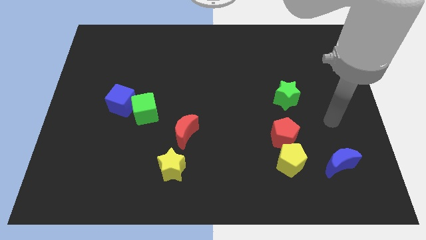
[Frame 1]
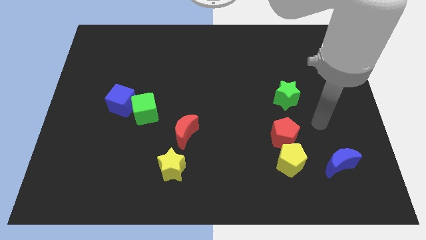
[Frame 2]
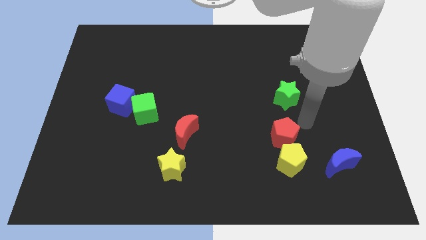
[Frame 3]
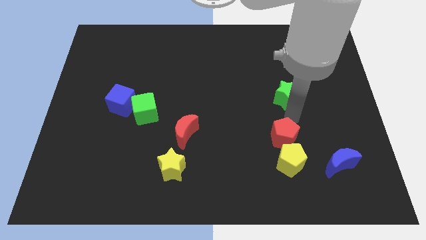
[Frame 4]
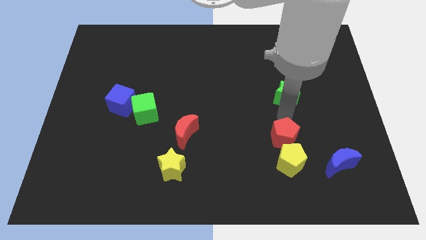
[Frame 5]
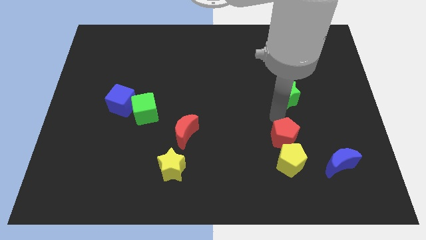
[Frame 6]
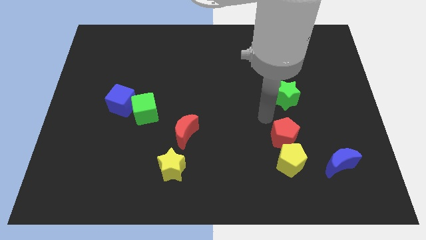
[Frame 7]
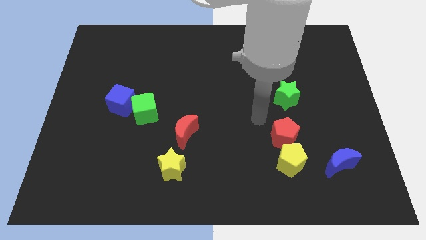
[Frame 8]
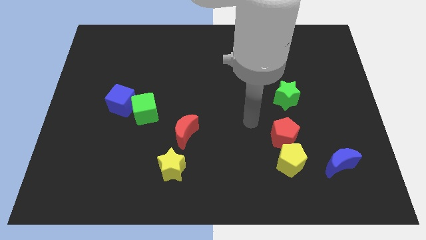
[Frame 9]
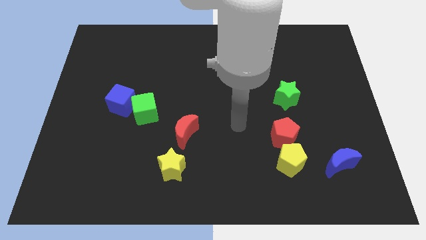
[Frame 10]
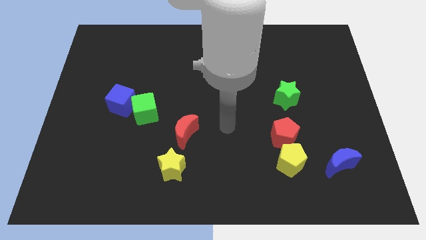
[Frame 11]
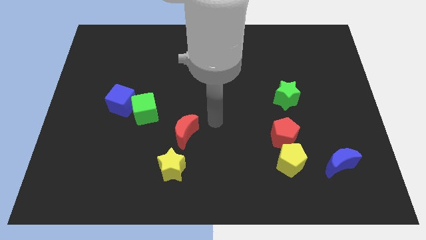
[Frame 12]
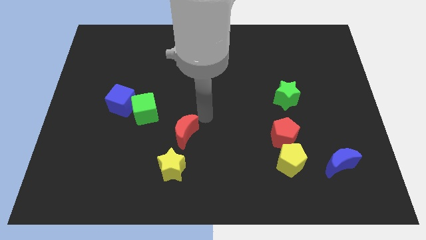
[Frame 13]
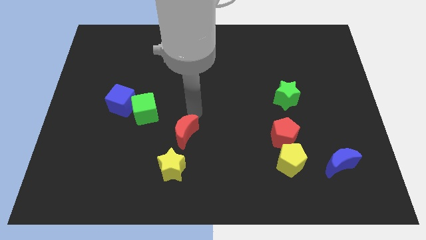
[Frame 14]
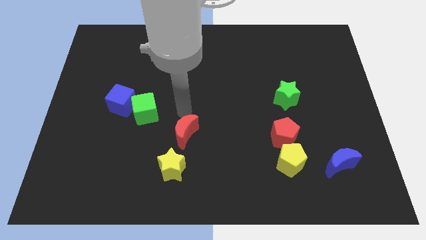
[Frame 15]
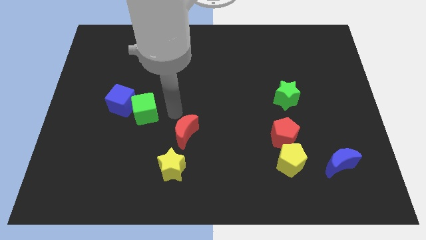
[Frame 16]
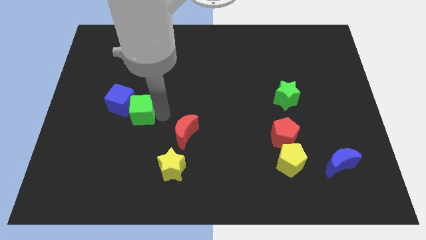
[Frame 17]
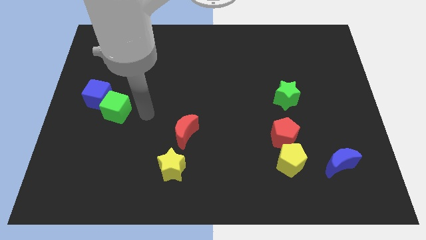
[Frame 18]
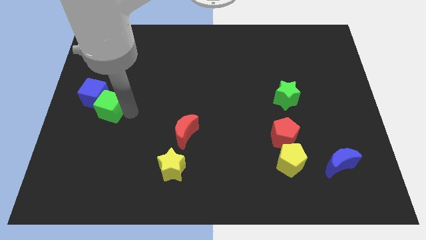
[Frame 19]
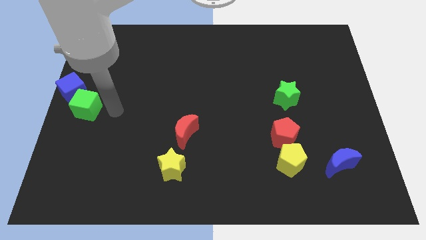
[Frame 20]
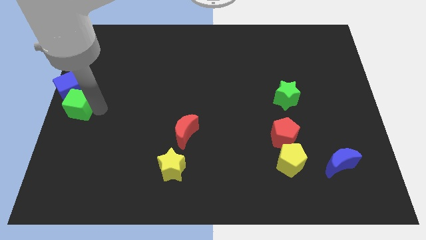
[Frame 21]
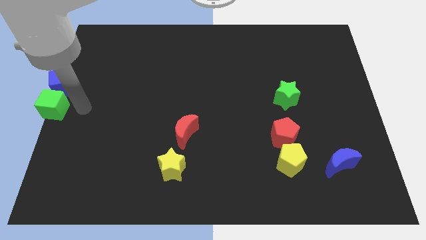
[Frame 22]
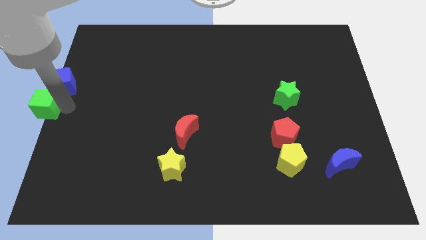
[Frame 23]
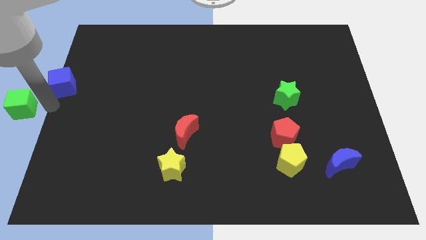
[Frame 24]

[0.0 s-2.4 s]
pull the blue cube apart from the green cube

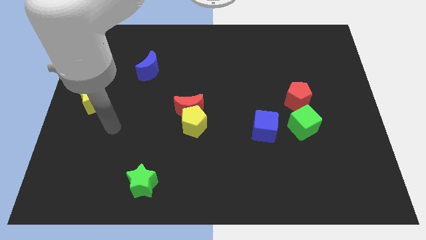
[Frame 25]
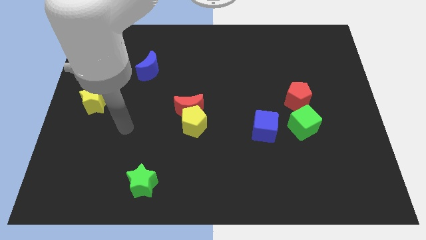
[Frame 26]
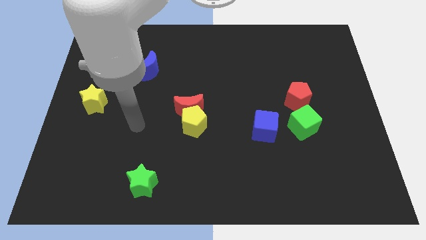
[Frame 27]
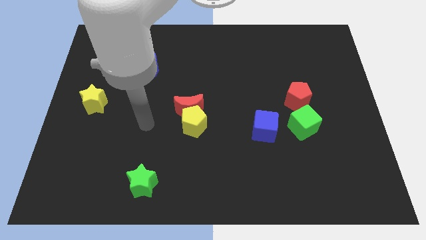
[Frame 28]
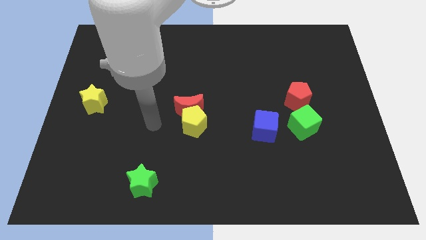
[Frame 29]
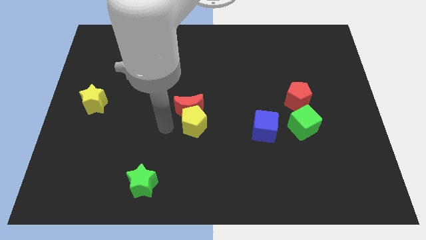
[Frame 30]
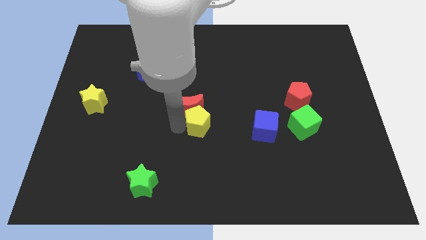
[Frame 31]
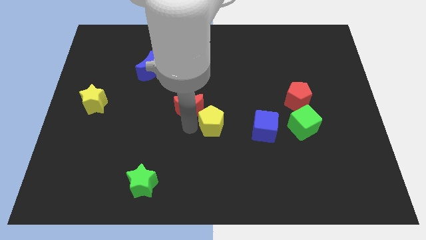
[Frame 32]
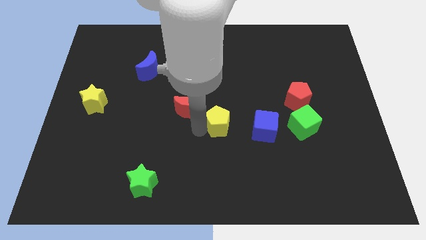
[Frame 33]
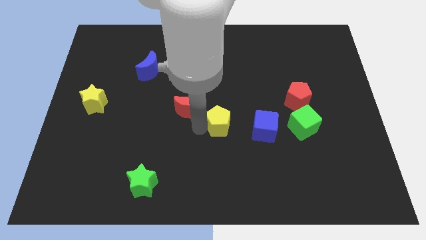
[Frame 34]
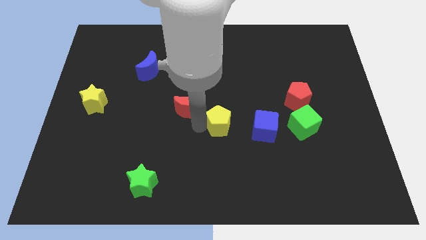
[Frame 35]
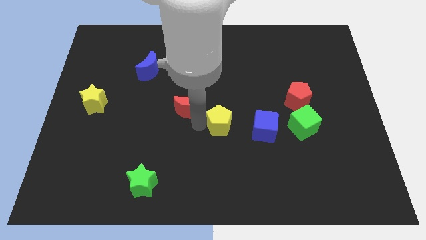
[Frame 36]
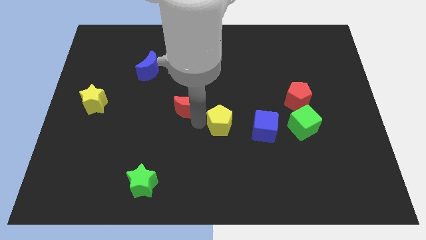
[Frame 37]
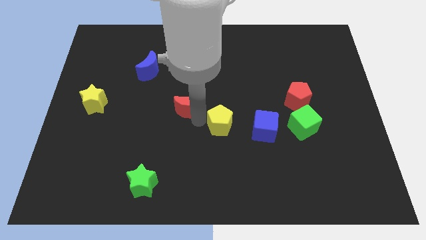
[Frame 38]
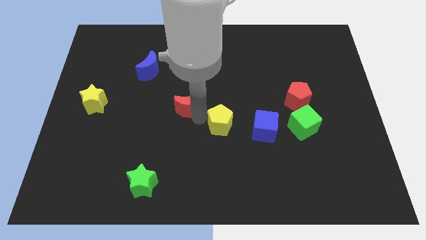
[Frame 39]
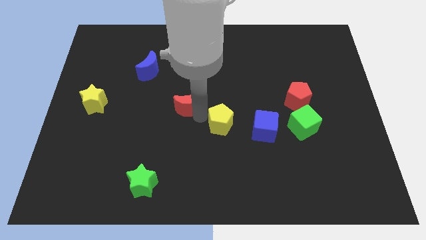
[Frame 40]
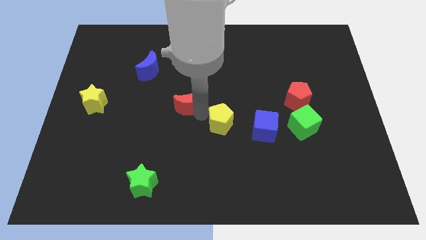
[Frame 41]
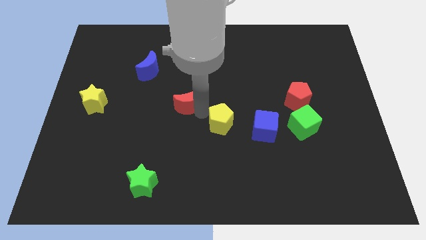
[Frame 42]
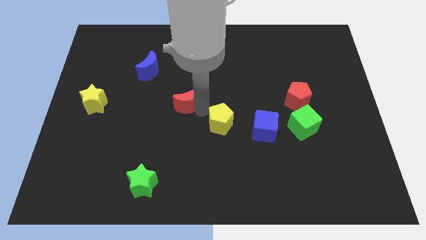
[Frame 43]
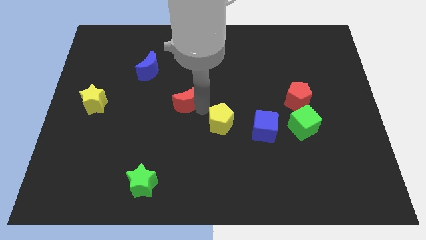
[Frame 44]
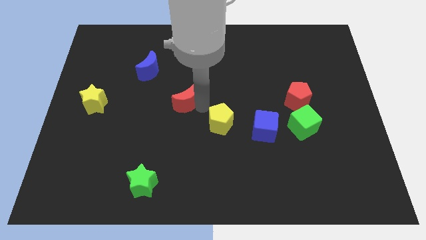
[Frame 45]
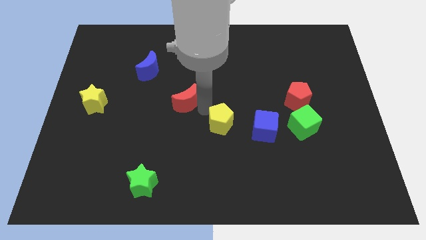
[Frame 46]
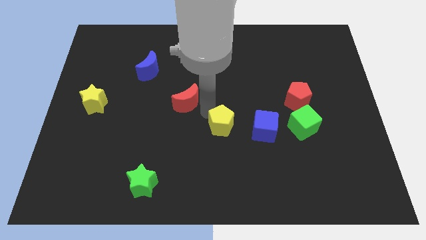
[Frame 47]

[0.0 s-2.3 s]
move the red moon away from the yellow pentagon

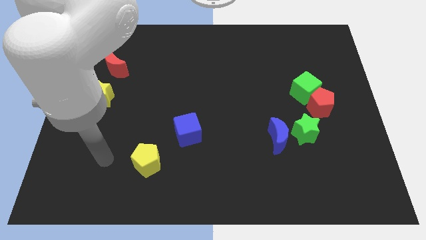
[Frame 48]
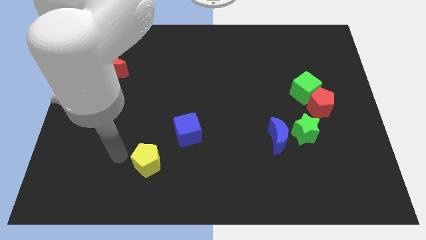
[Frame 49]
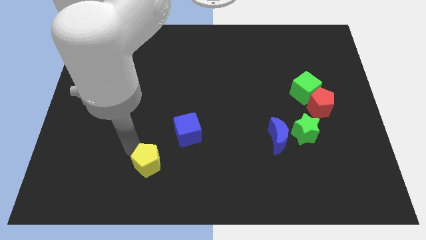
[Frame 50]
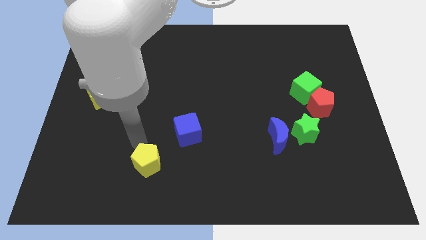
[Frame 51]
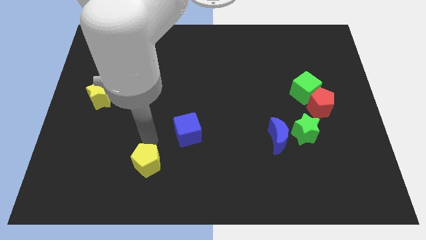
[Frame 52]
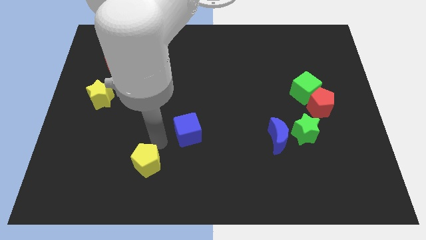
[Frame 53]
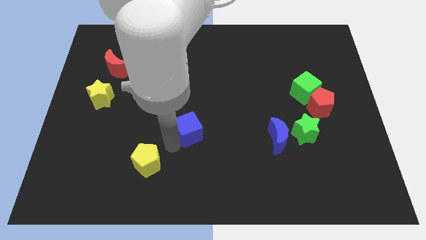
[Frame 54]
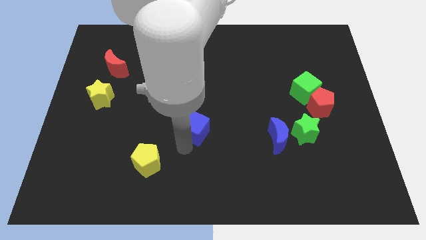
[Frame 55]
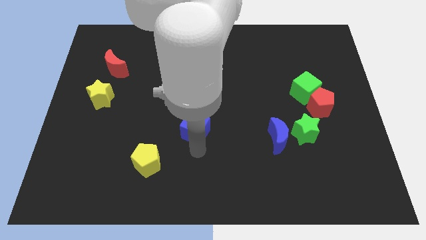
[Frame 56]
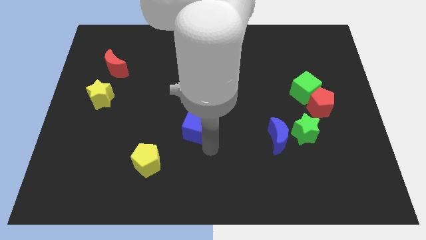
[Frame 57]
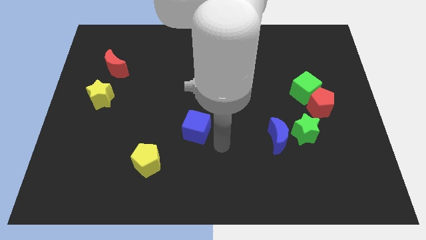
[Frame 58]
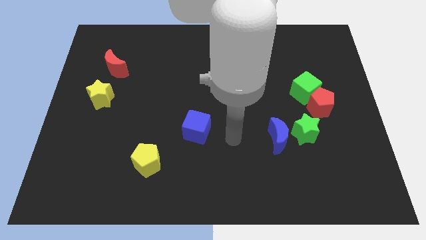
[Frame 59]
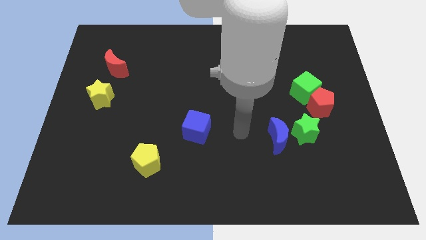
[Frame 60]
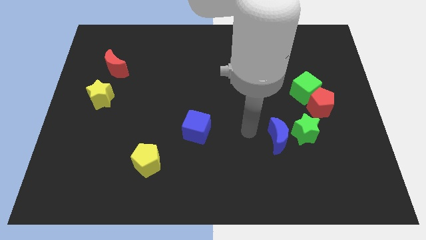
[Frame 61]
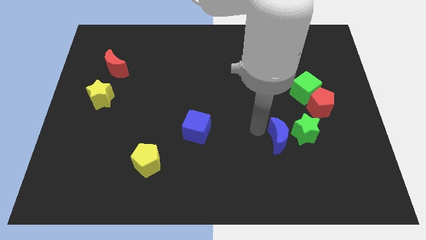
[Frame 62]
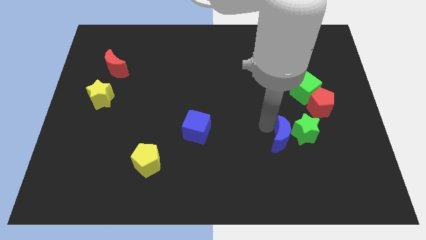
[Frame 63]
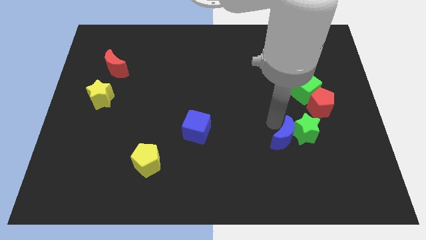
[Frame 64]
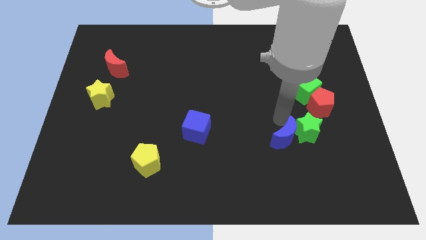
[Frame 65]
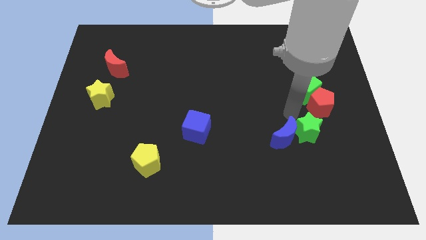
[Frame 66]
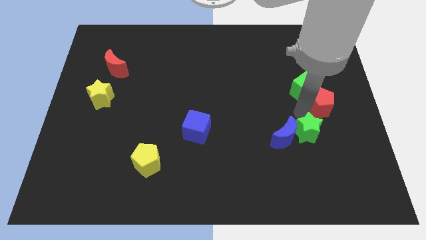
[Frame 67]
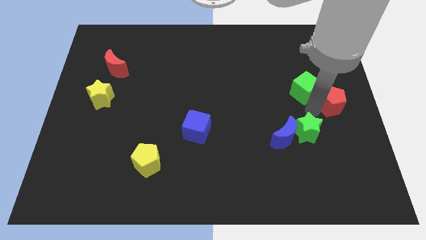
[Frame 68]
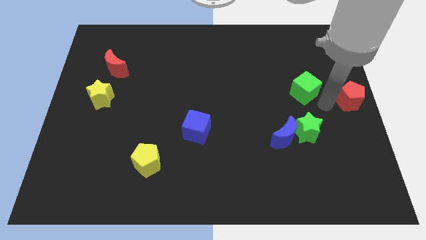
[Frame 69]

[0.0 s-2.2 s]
separate the green cube from the red pentagon

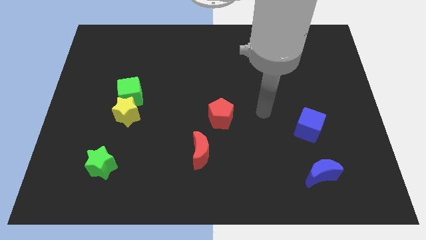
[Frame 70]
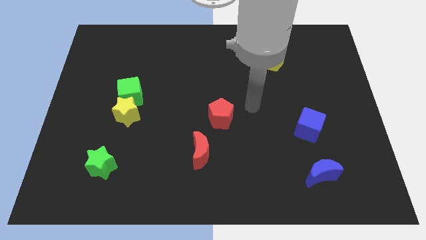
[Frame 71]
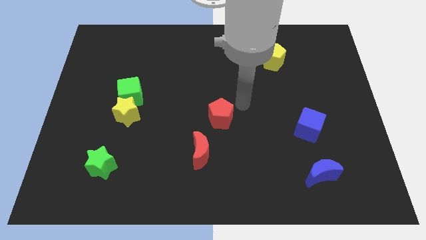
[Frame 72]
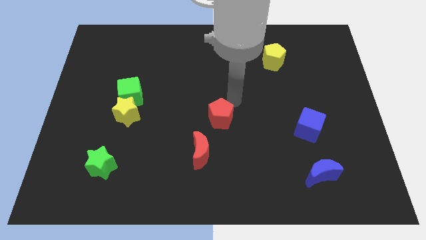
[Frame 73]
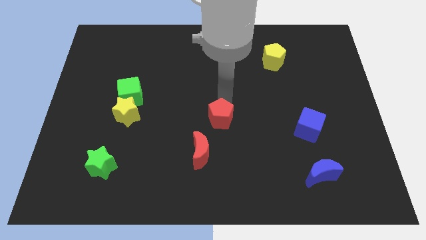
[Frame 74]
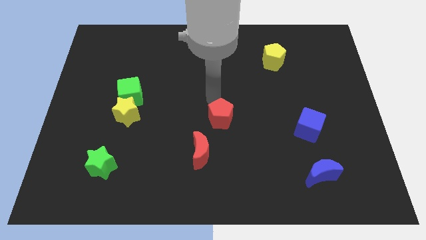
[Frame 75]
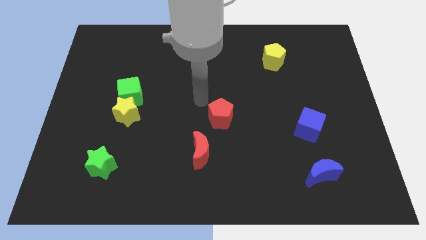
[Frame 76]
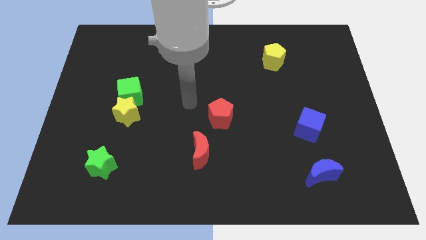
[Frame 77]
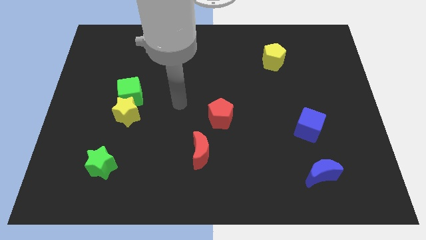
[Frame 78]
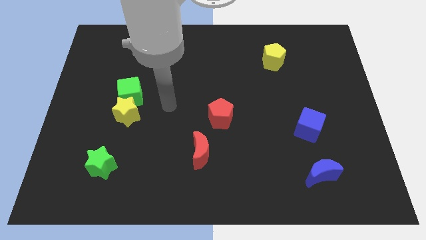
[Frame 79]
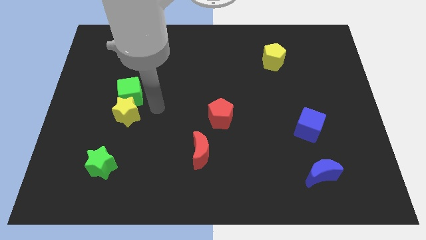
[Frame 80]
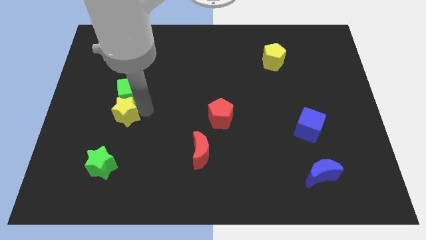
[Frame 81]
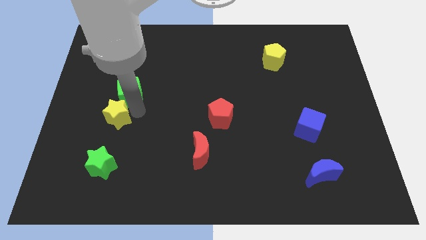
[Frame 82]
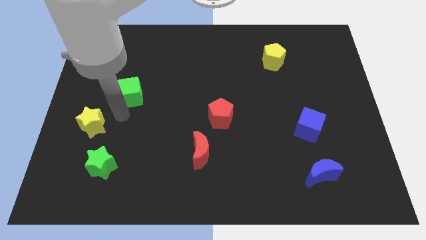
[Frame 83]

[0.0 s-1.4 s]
pull the green cube apart from the yellow star

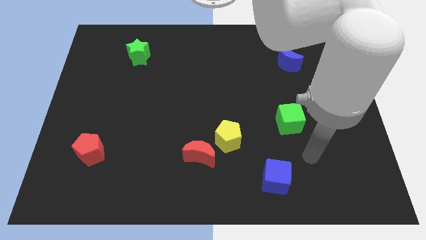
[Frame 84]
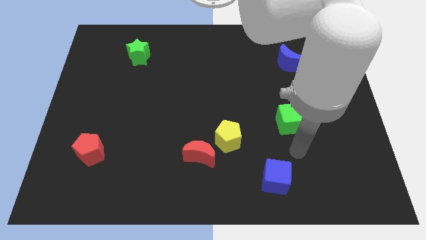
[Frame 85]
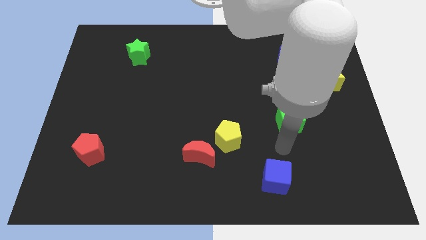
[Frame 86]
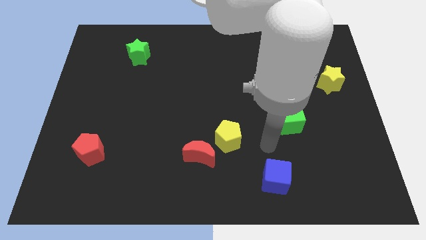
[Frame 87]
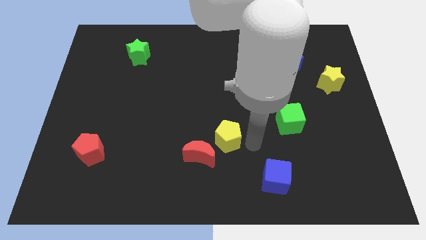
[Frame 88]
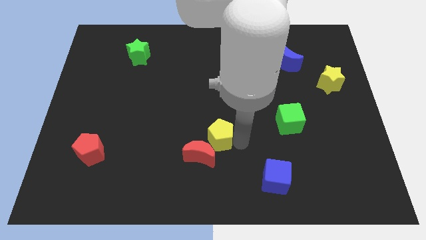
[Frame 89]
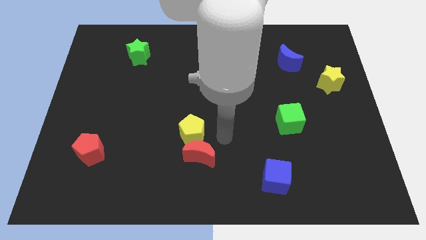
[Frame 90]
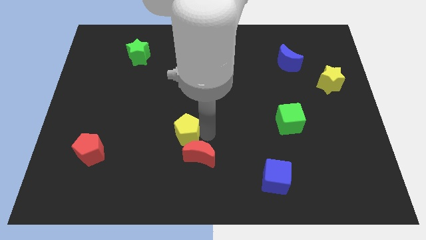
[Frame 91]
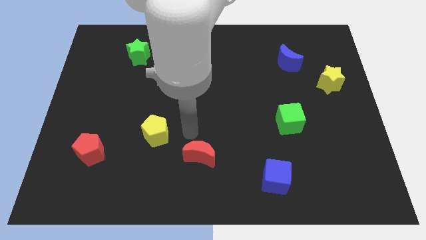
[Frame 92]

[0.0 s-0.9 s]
pull the red moon apart from the yellow pentagon

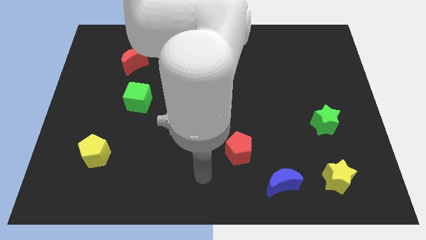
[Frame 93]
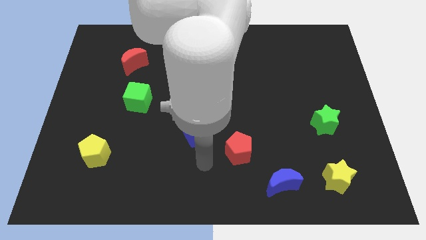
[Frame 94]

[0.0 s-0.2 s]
pull the red pentagon apart from the blue cube
